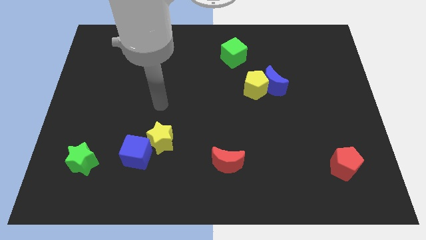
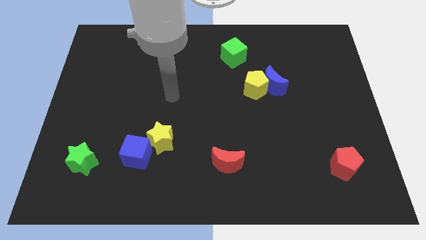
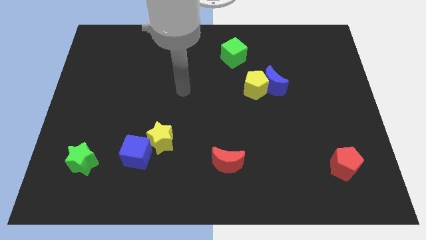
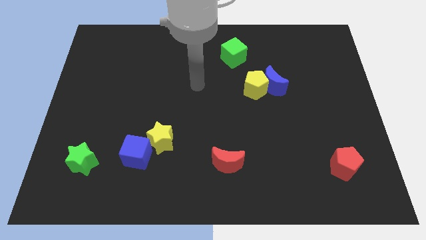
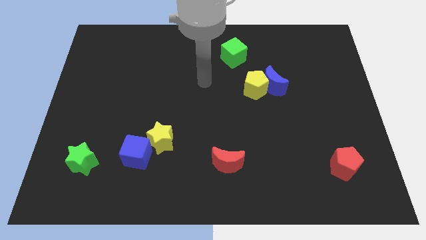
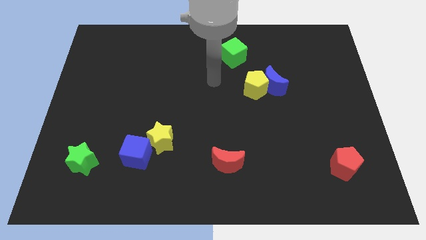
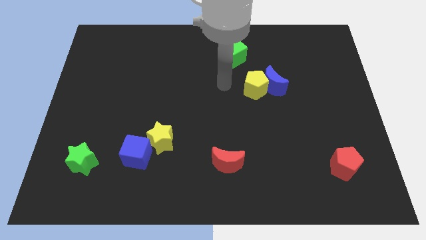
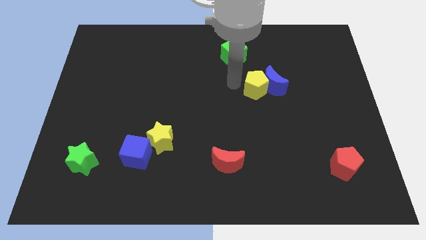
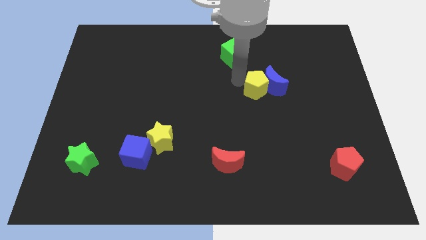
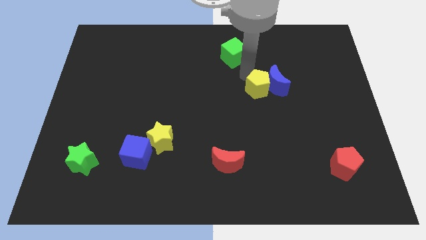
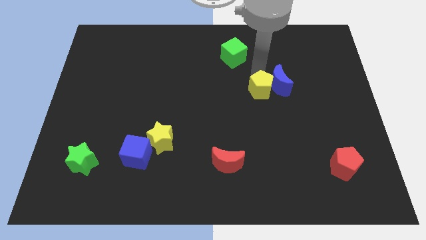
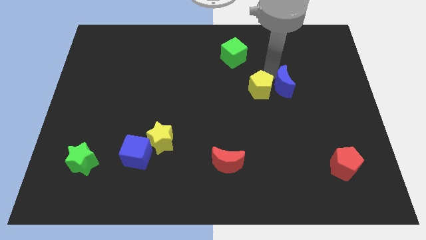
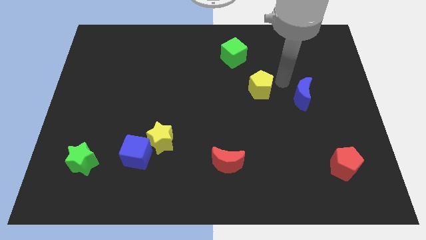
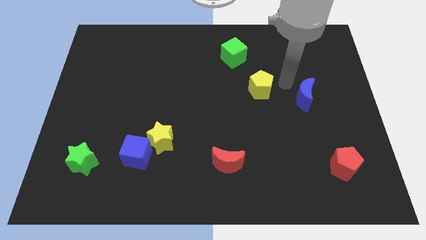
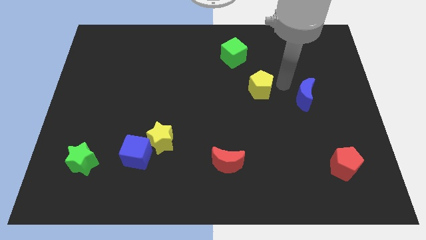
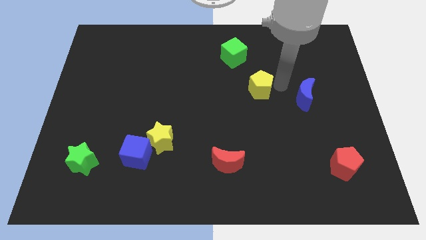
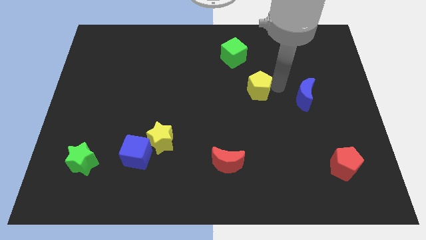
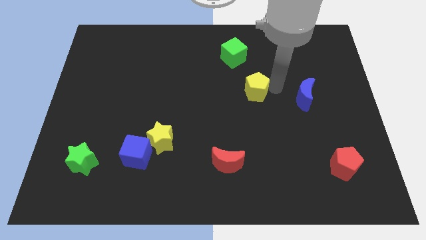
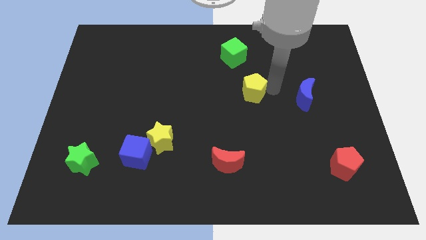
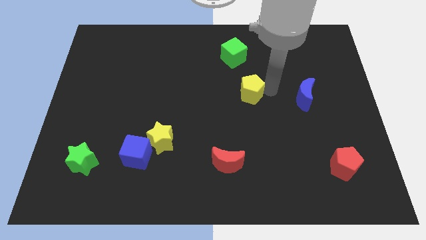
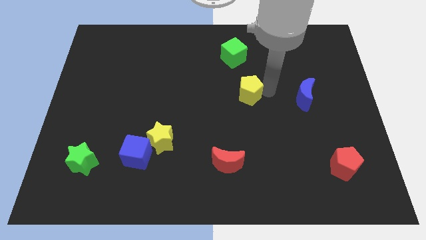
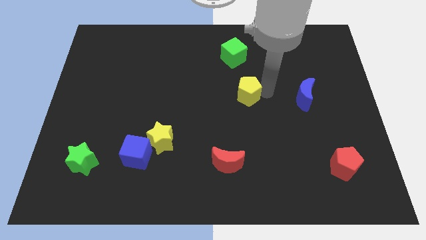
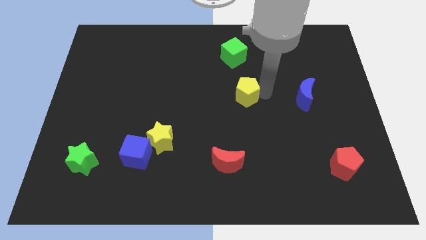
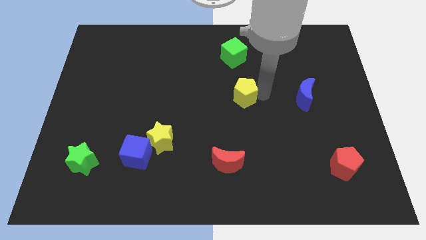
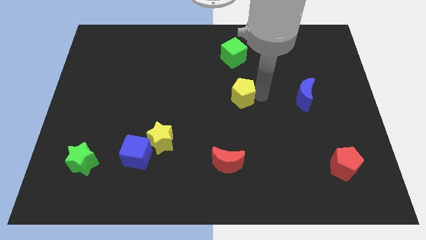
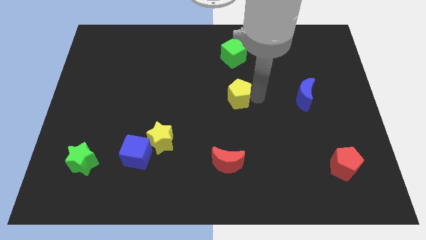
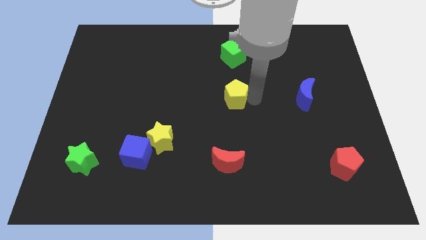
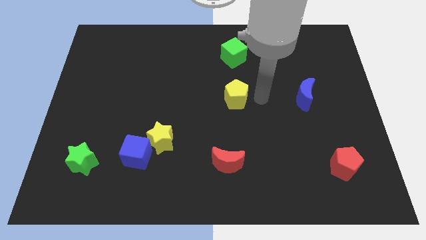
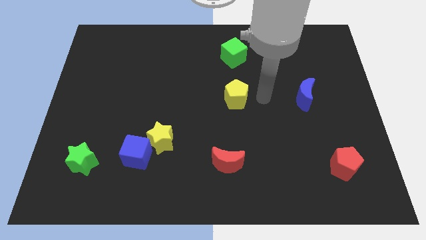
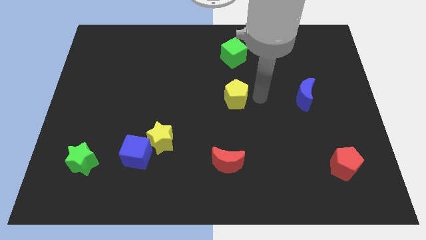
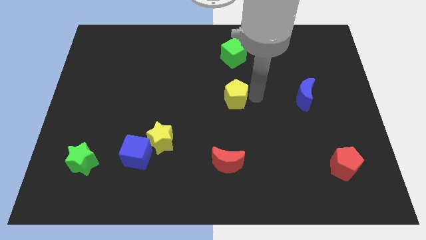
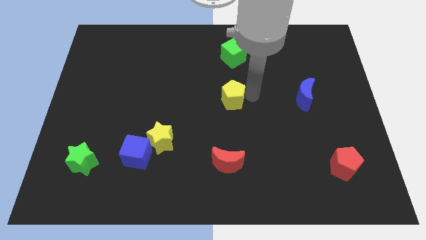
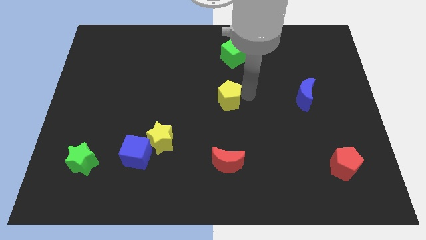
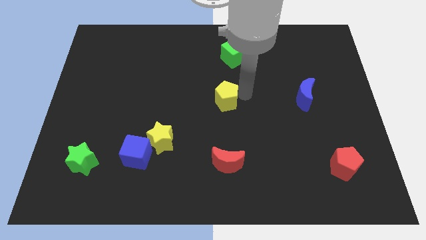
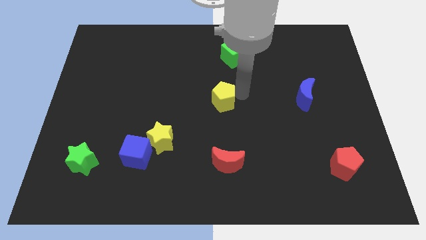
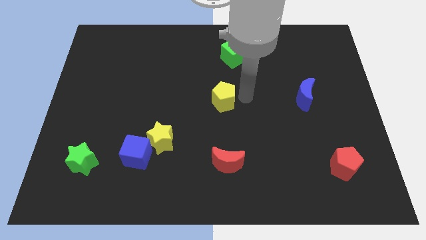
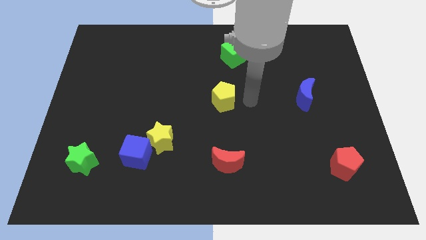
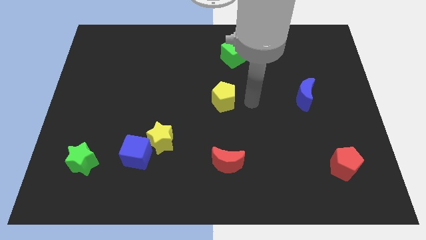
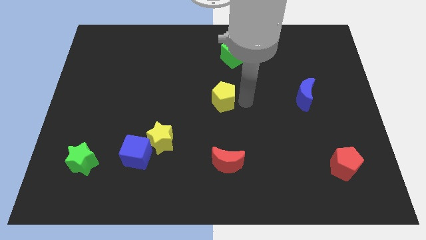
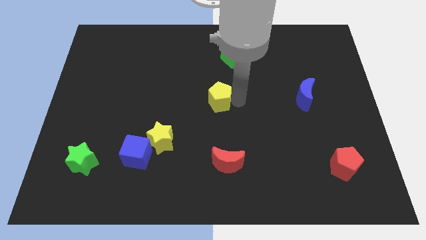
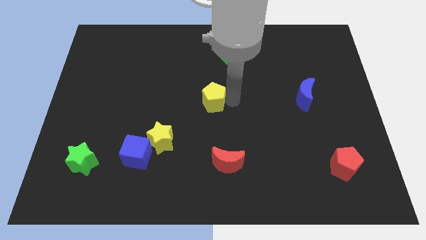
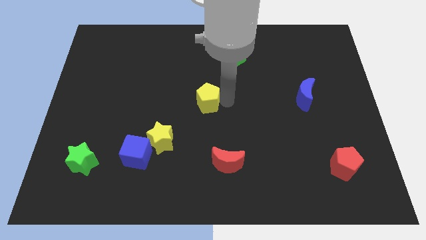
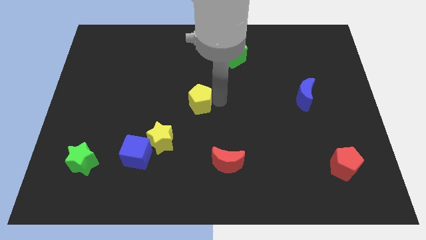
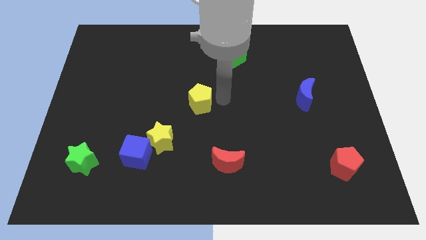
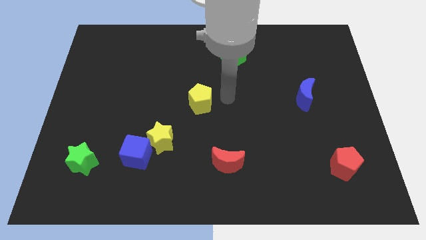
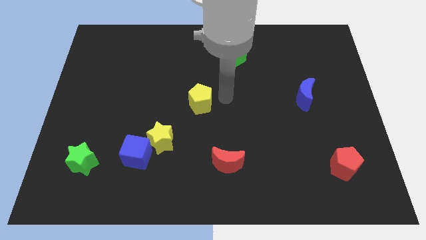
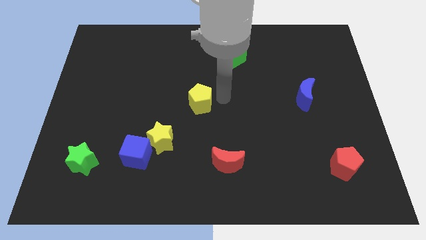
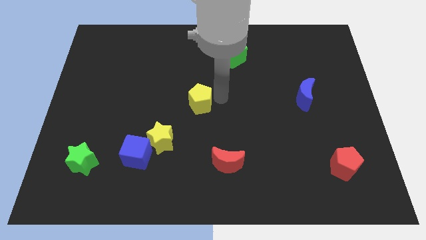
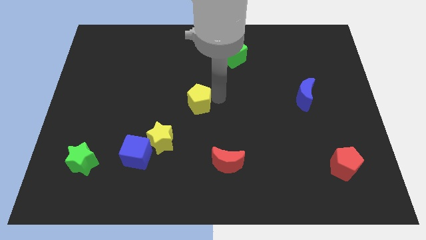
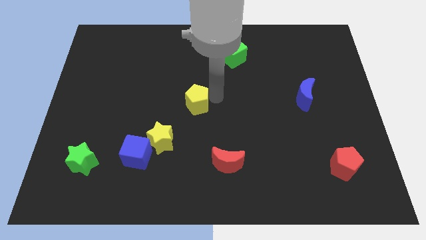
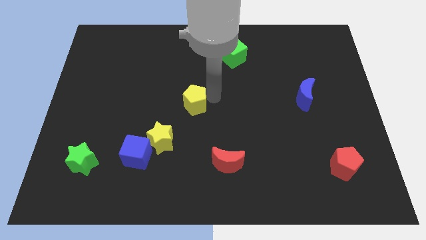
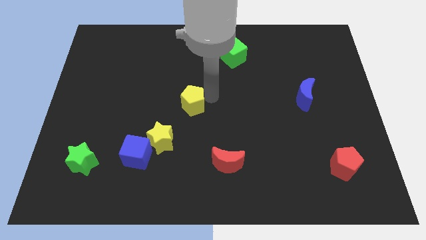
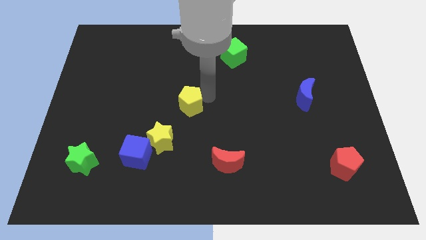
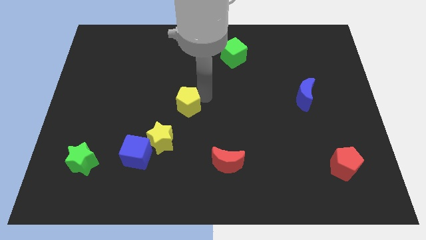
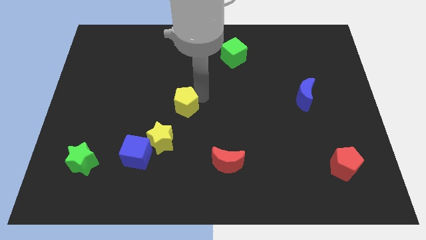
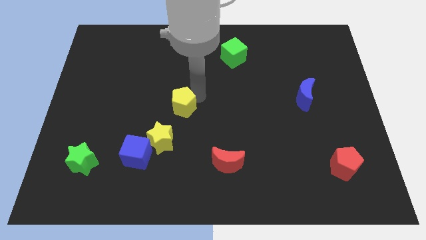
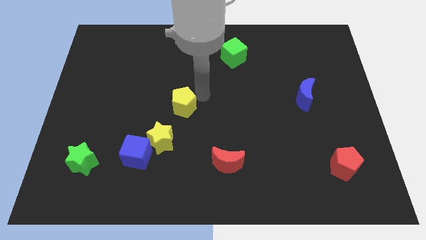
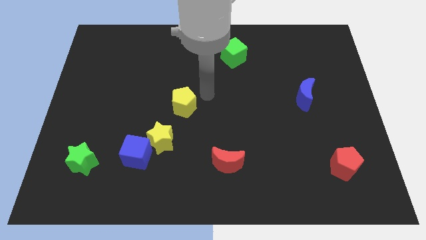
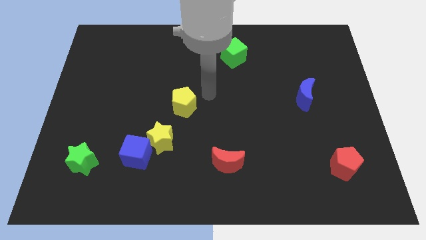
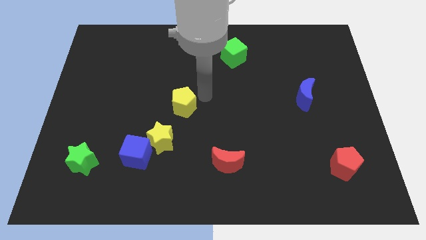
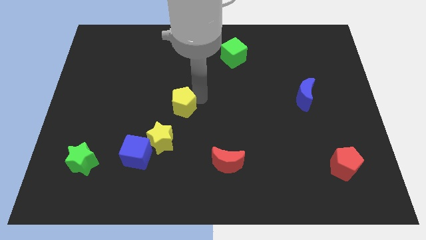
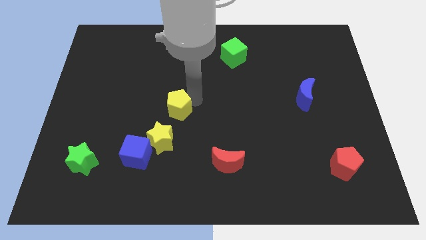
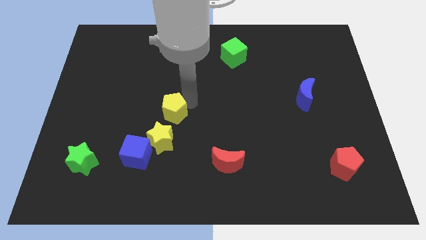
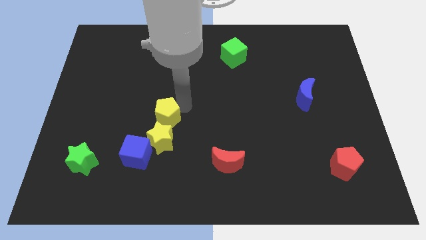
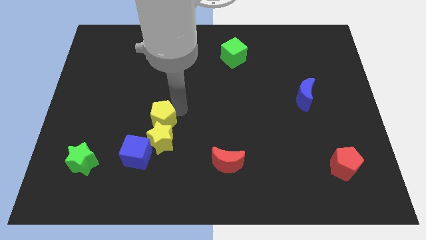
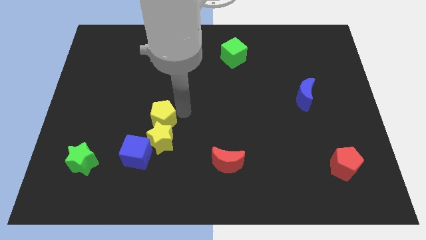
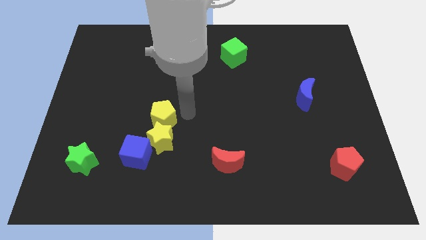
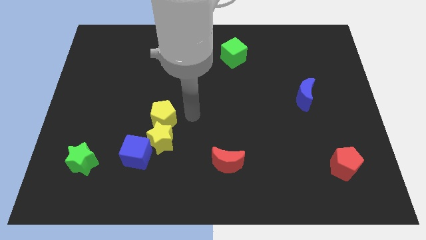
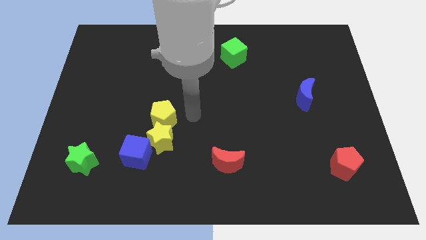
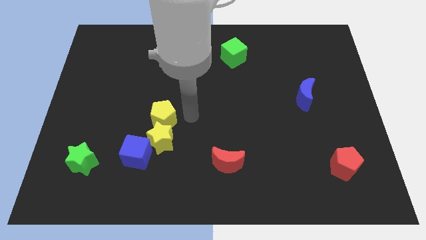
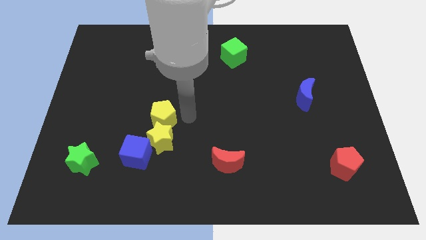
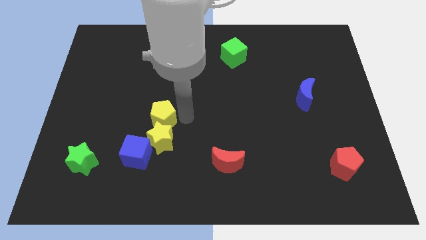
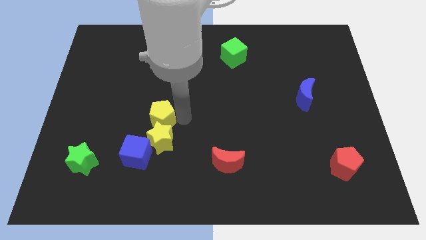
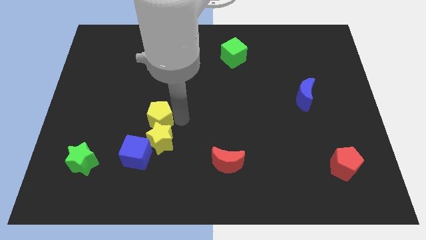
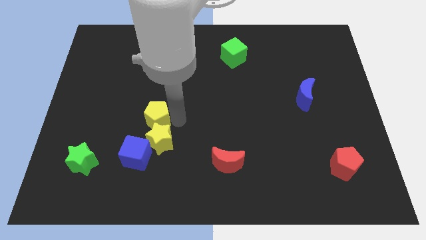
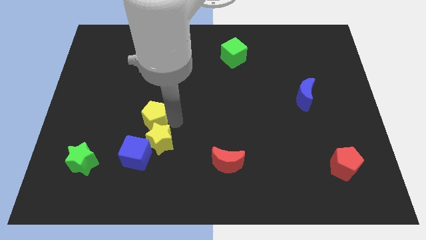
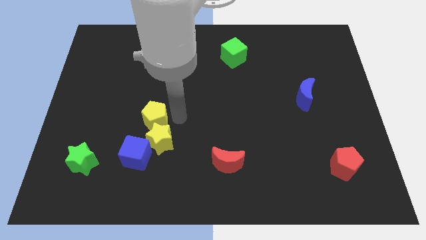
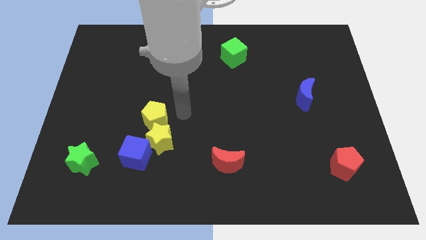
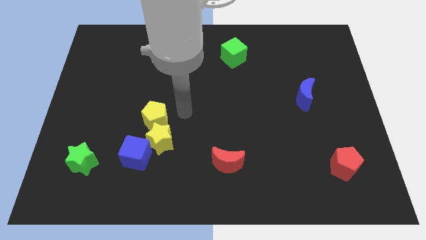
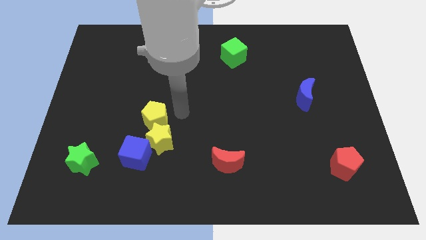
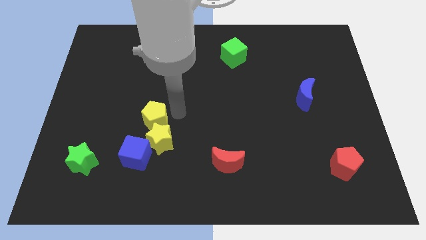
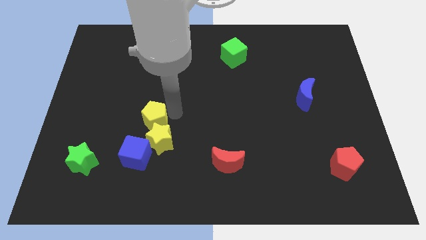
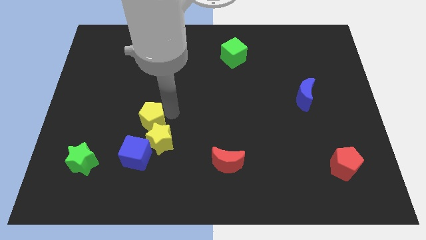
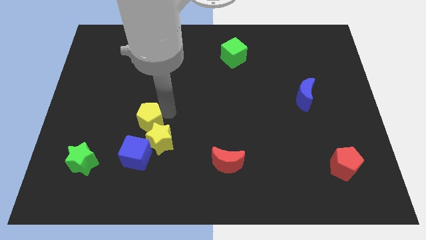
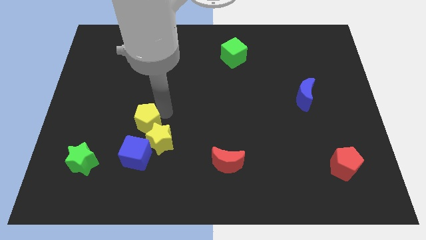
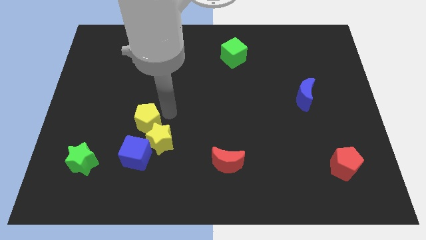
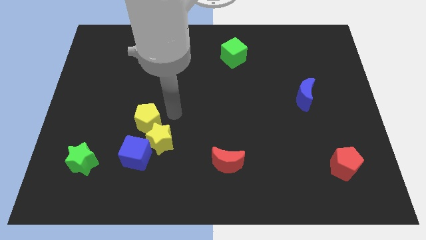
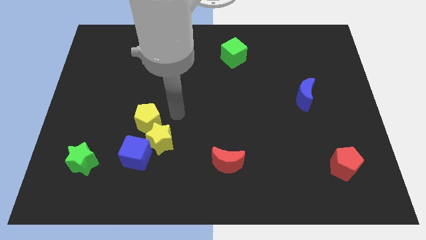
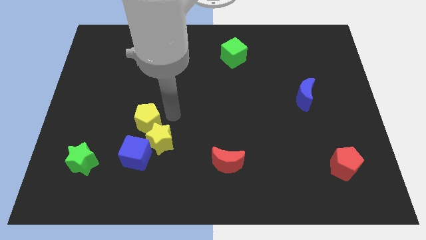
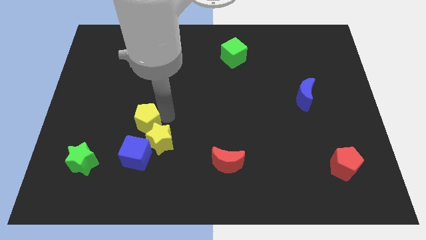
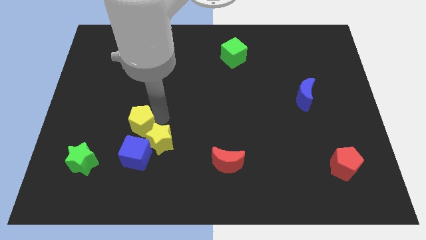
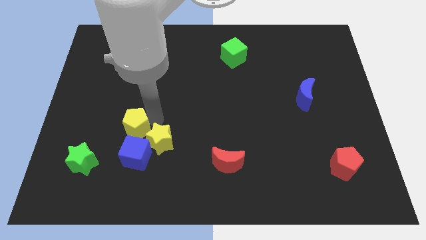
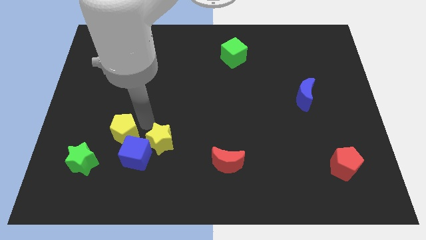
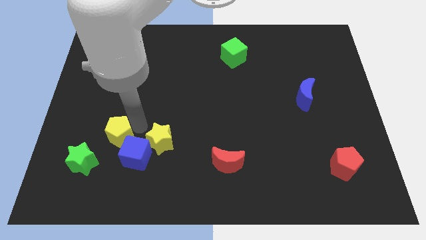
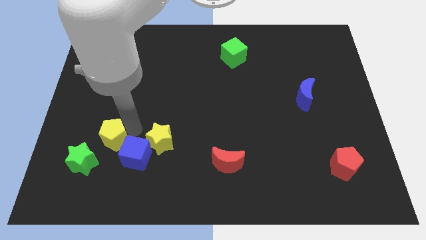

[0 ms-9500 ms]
move the yellow pentagon left of the blue cube
